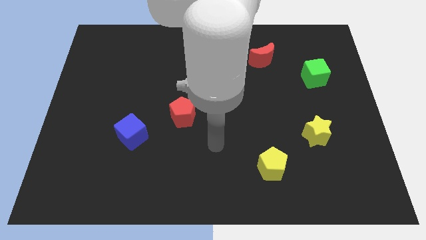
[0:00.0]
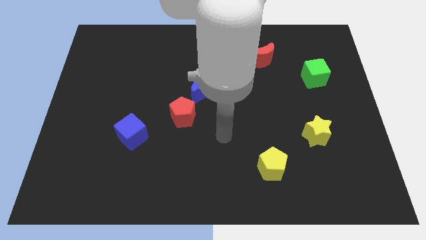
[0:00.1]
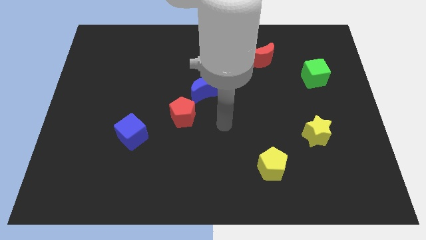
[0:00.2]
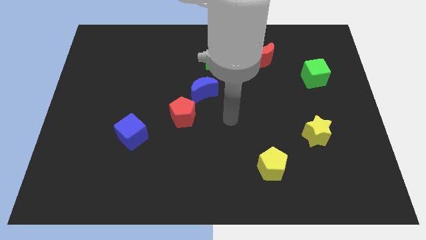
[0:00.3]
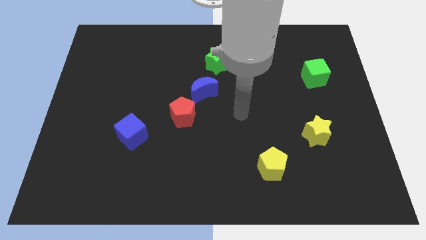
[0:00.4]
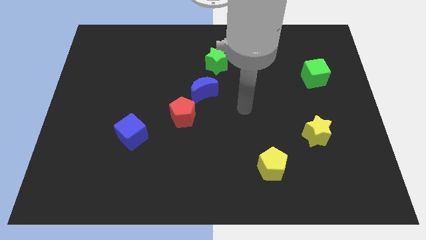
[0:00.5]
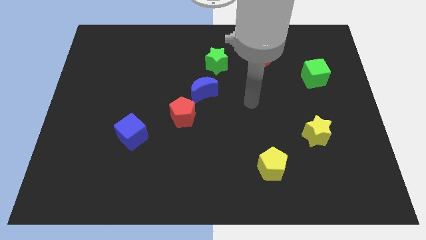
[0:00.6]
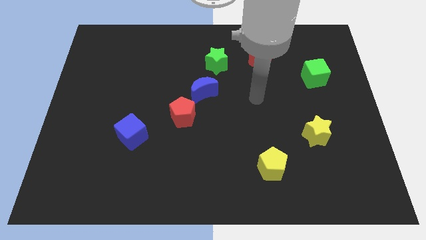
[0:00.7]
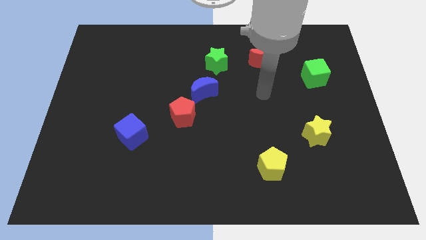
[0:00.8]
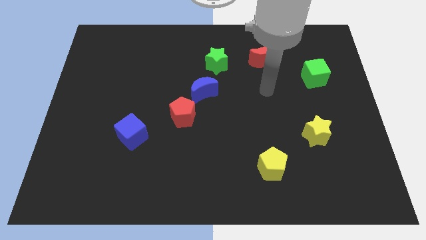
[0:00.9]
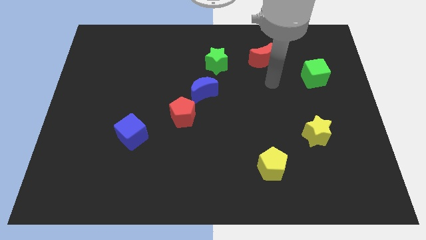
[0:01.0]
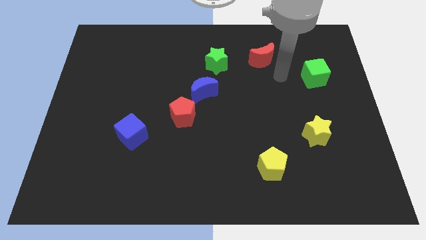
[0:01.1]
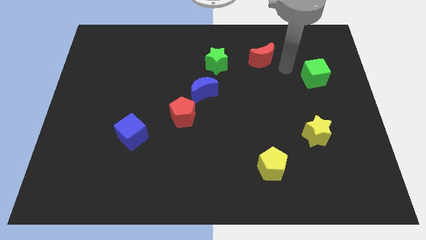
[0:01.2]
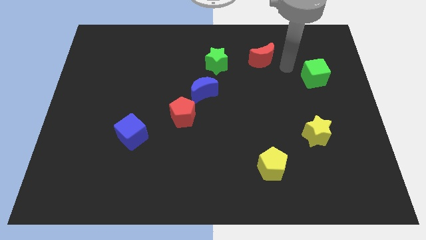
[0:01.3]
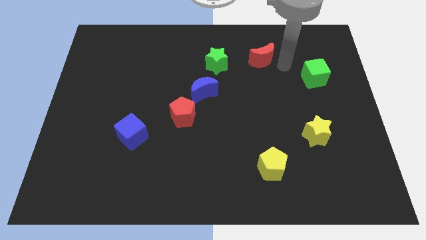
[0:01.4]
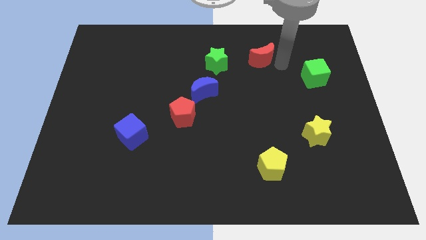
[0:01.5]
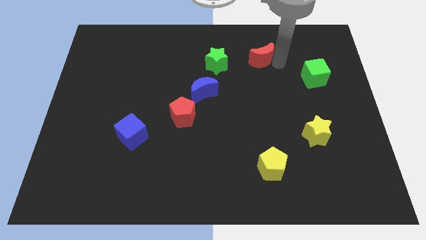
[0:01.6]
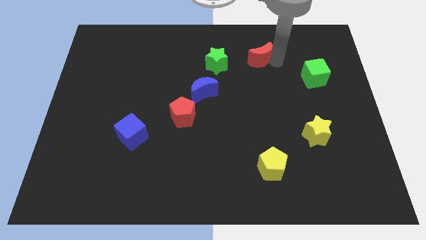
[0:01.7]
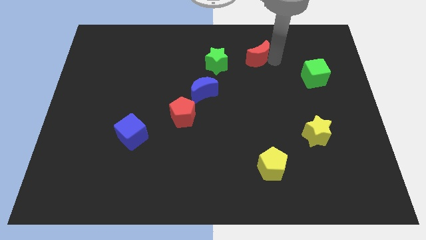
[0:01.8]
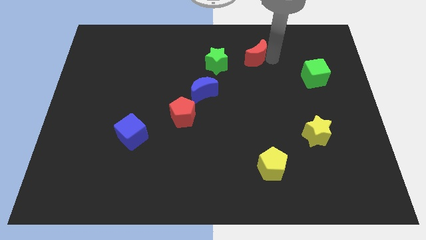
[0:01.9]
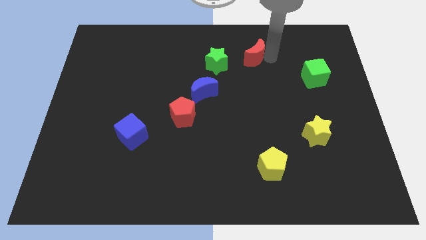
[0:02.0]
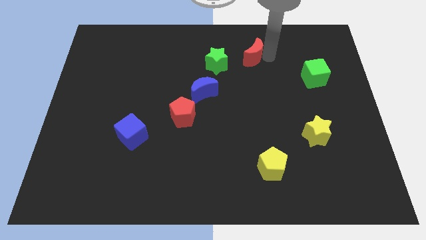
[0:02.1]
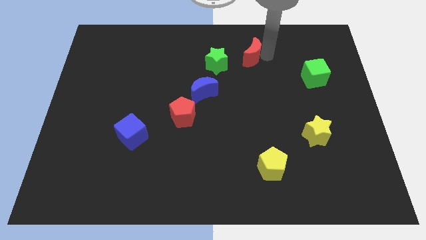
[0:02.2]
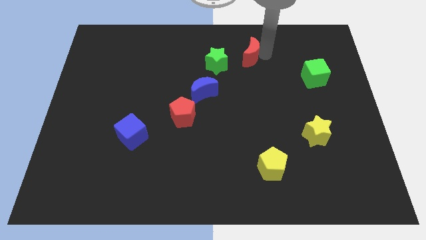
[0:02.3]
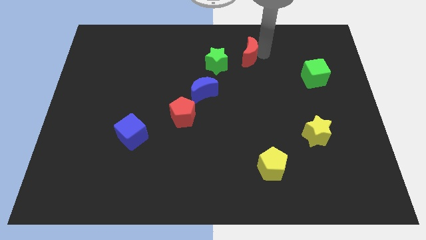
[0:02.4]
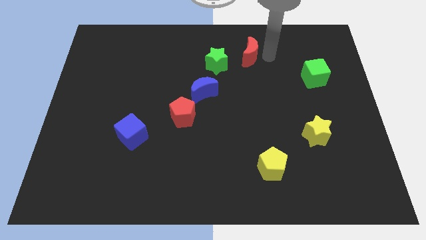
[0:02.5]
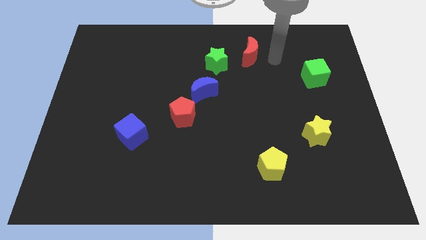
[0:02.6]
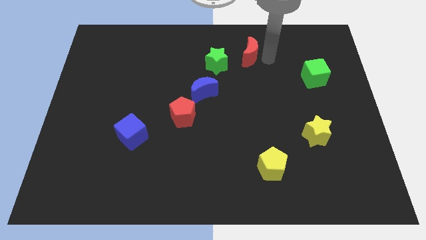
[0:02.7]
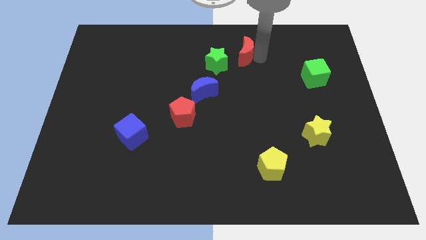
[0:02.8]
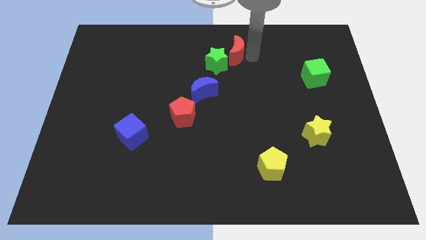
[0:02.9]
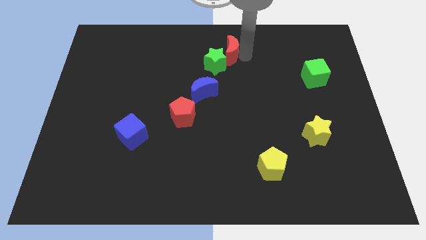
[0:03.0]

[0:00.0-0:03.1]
move the red moon a little to the left

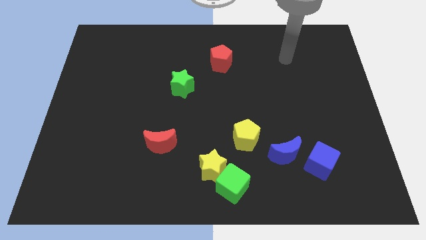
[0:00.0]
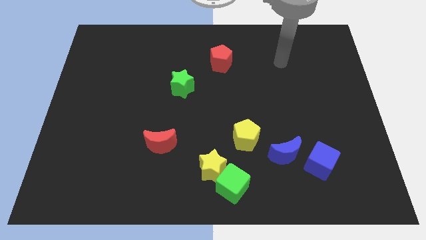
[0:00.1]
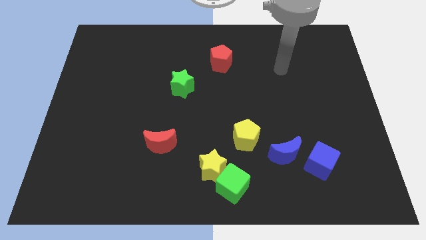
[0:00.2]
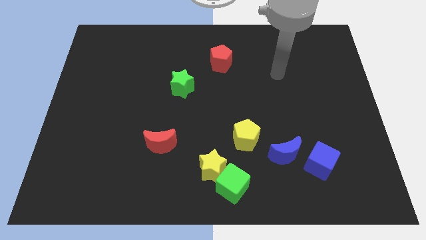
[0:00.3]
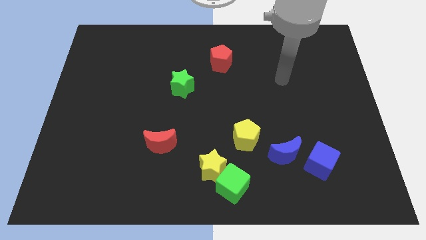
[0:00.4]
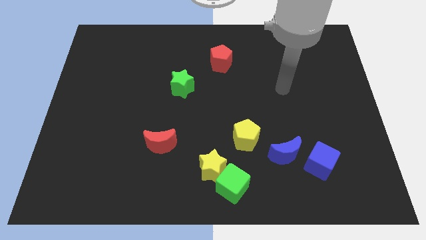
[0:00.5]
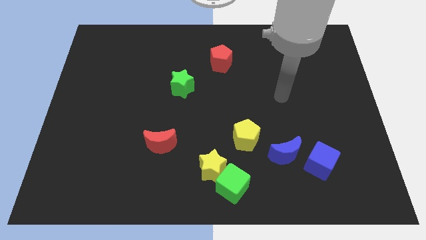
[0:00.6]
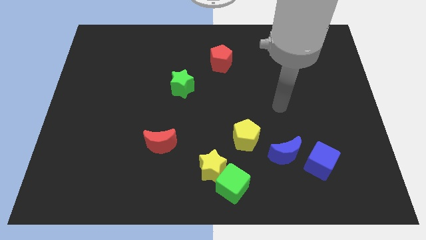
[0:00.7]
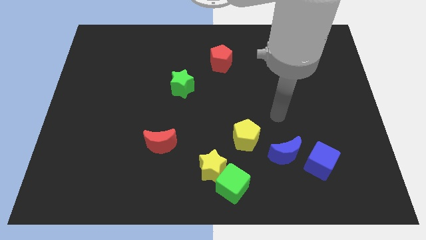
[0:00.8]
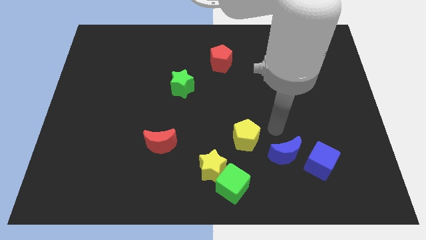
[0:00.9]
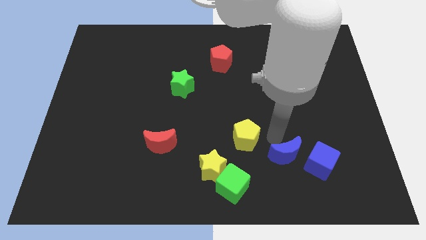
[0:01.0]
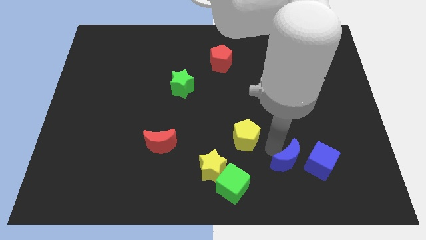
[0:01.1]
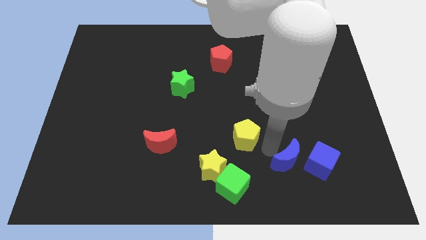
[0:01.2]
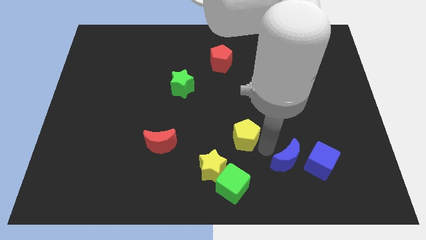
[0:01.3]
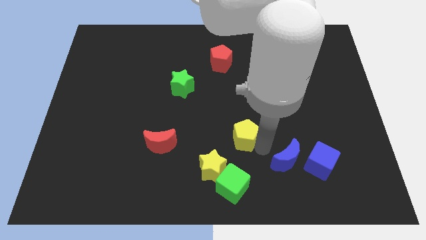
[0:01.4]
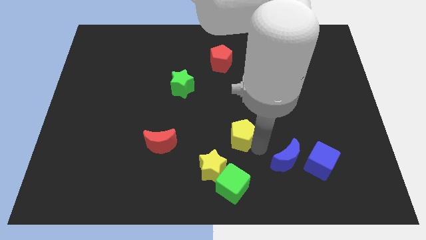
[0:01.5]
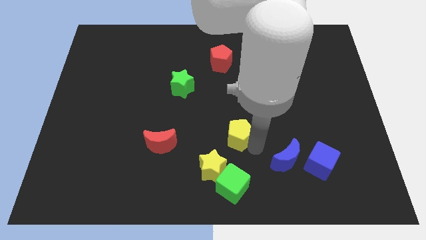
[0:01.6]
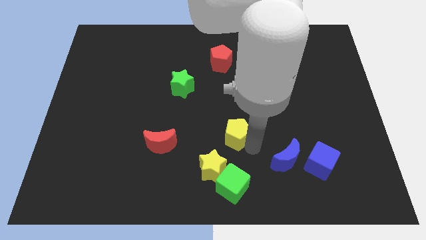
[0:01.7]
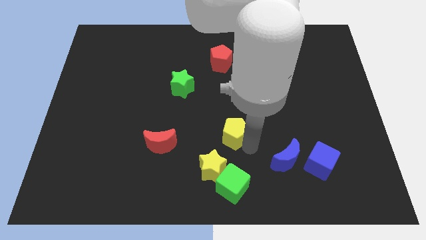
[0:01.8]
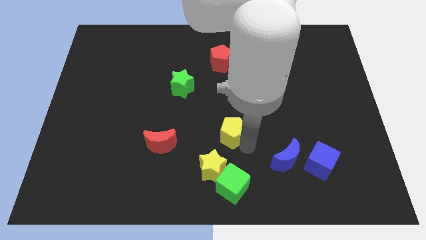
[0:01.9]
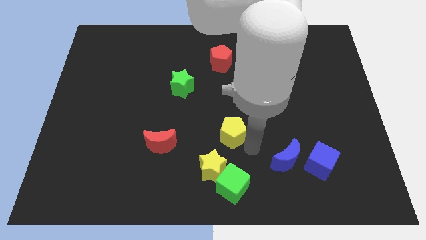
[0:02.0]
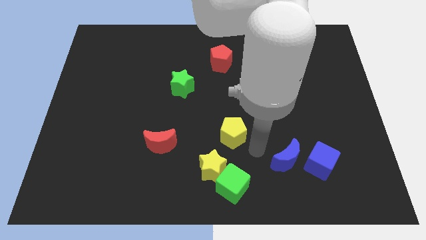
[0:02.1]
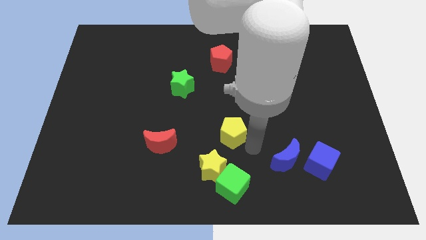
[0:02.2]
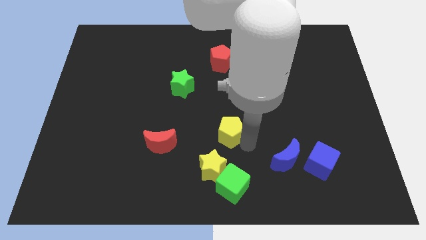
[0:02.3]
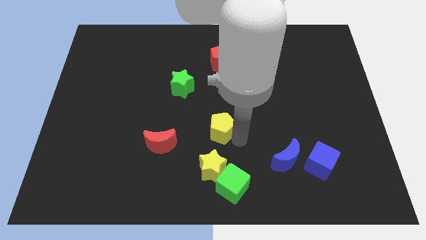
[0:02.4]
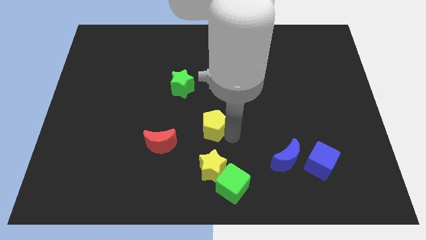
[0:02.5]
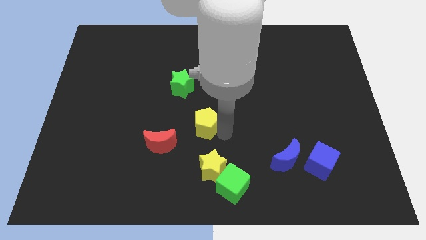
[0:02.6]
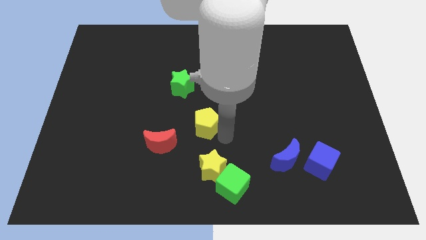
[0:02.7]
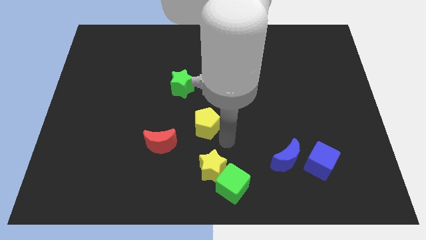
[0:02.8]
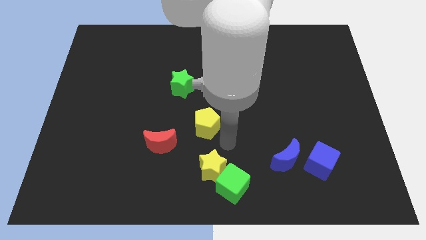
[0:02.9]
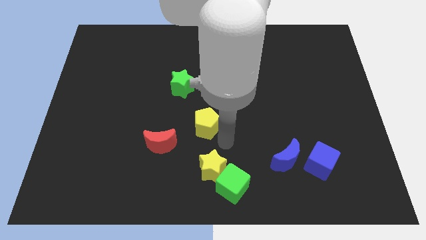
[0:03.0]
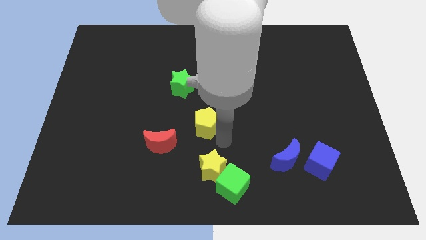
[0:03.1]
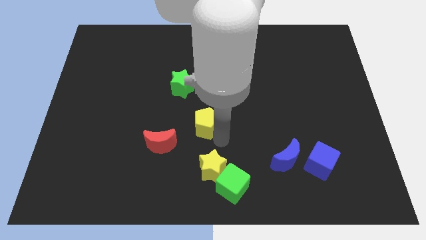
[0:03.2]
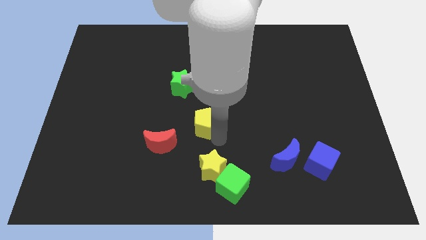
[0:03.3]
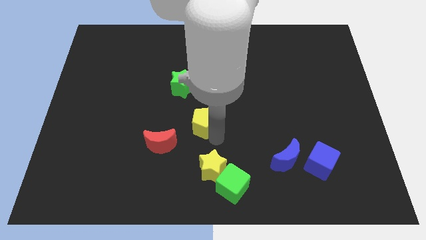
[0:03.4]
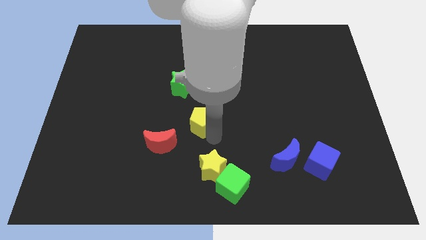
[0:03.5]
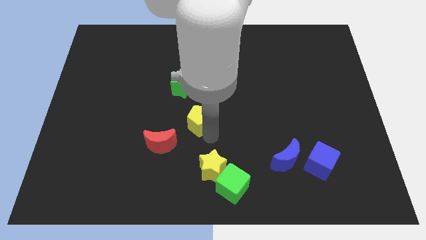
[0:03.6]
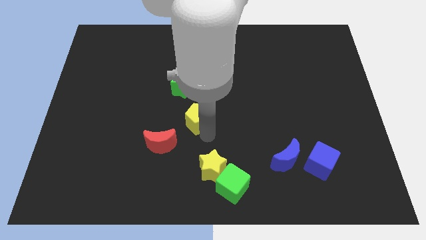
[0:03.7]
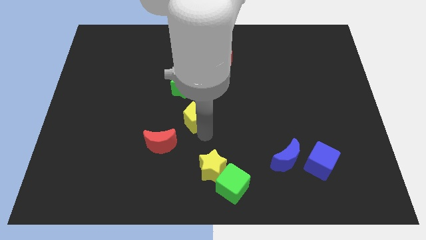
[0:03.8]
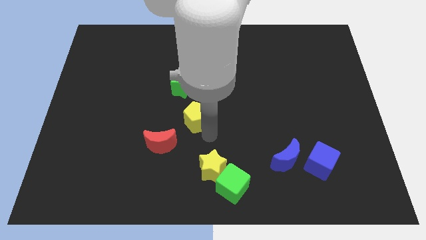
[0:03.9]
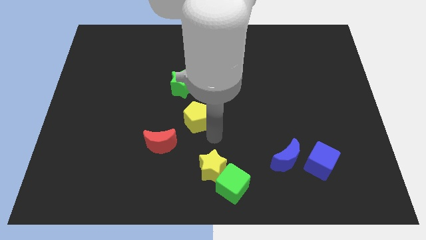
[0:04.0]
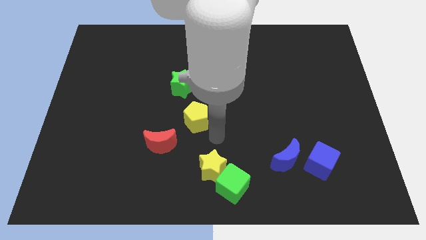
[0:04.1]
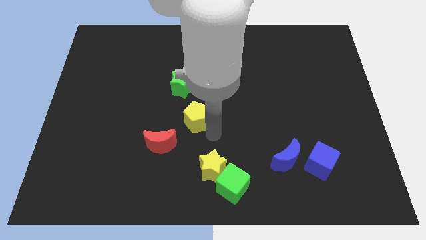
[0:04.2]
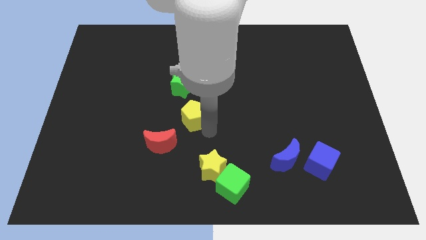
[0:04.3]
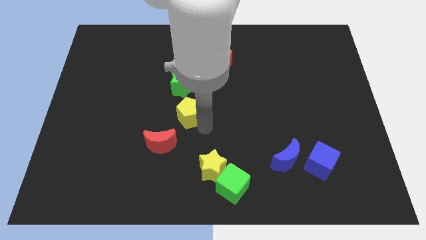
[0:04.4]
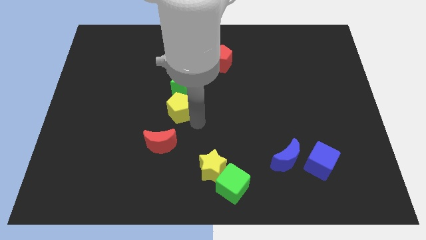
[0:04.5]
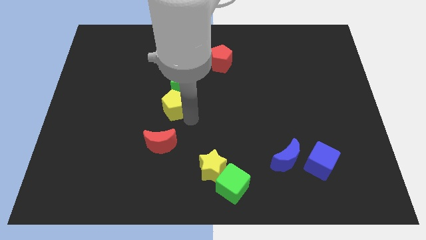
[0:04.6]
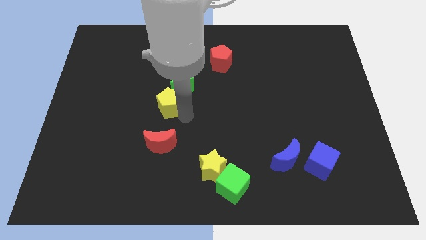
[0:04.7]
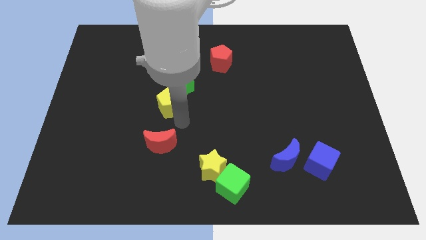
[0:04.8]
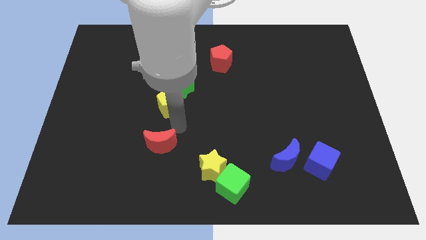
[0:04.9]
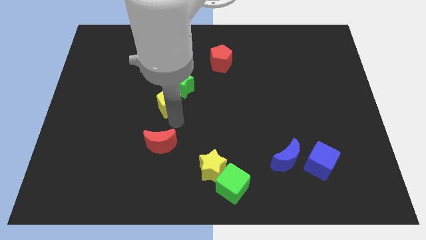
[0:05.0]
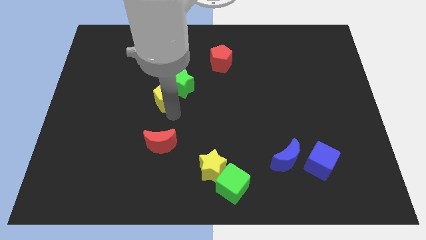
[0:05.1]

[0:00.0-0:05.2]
move the yellow pentagon up and left diagonally
